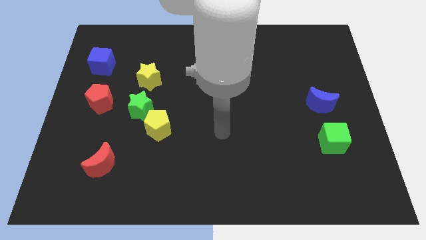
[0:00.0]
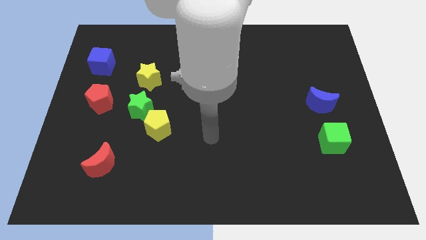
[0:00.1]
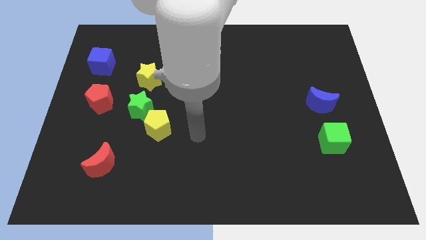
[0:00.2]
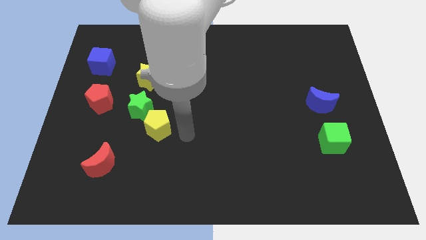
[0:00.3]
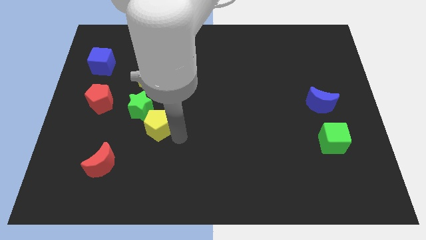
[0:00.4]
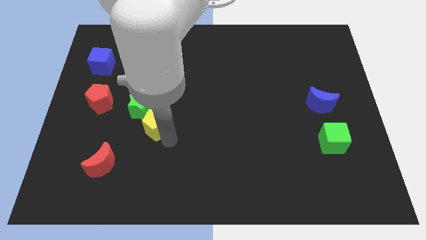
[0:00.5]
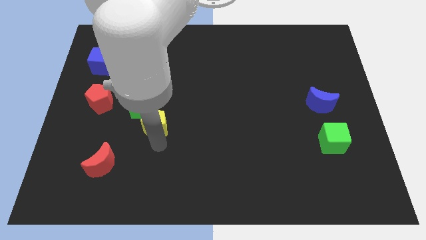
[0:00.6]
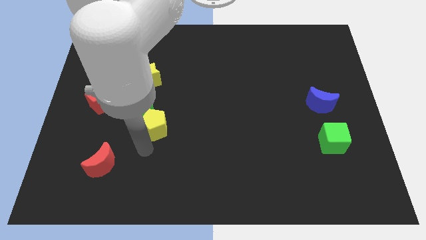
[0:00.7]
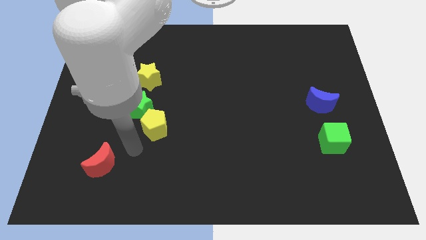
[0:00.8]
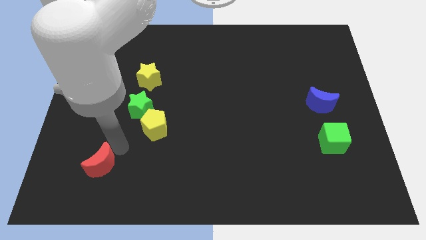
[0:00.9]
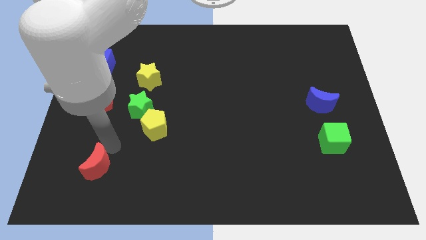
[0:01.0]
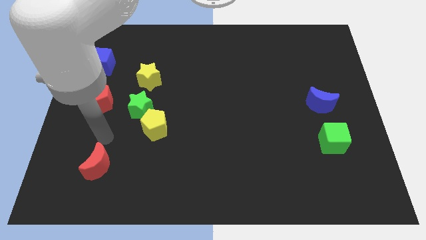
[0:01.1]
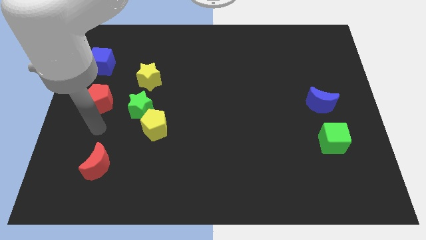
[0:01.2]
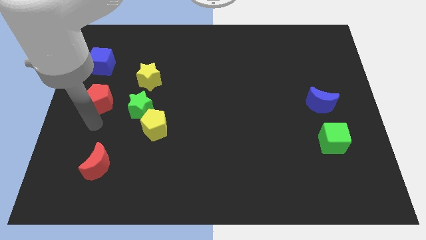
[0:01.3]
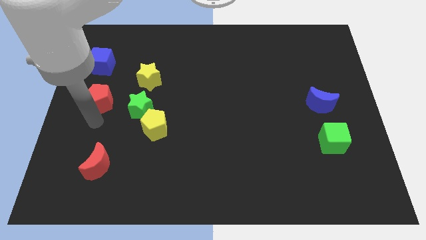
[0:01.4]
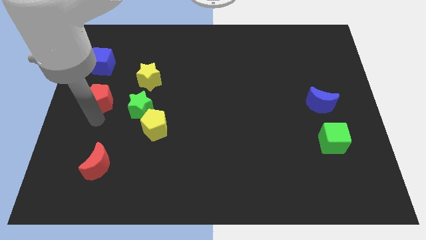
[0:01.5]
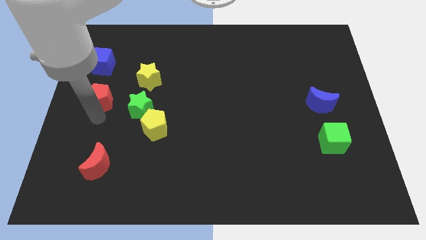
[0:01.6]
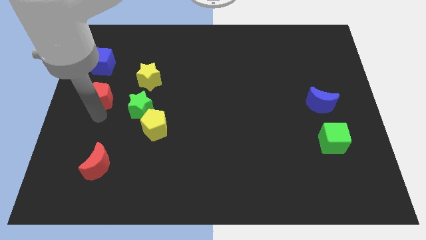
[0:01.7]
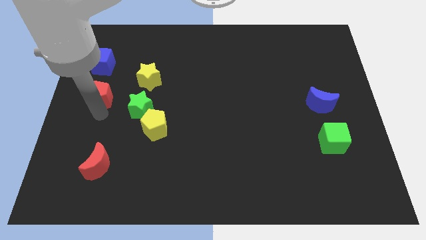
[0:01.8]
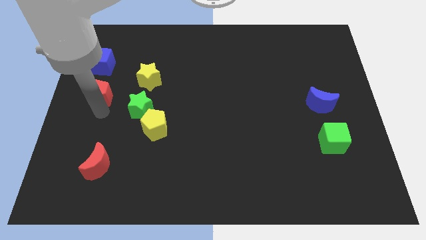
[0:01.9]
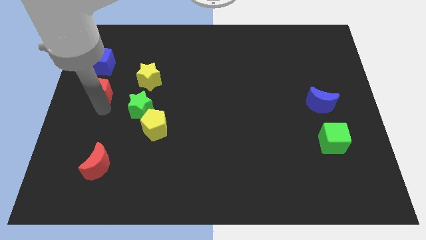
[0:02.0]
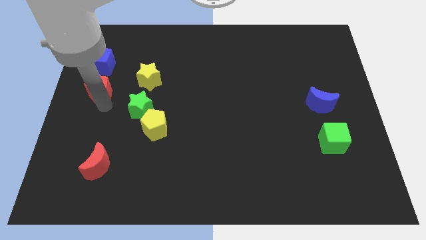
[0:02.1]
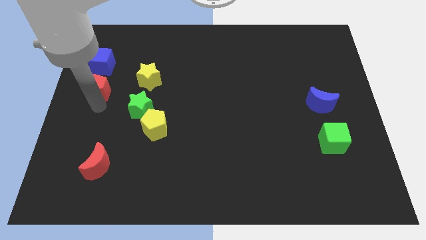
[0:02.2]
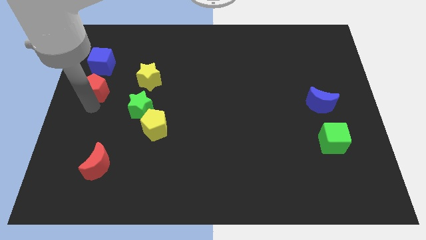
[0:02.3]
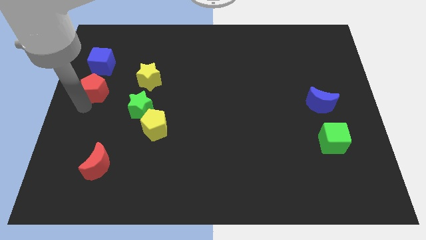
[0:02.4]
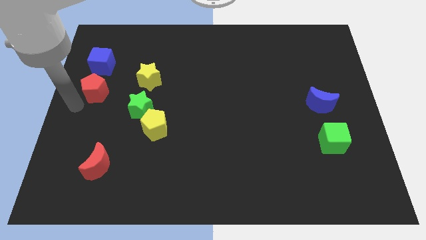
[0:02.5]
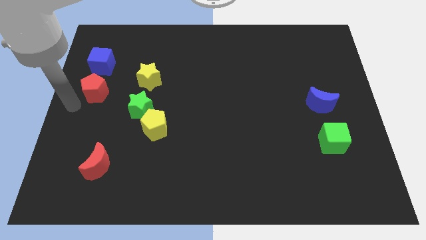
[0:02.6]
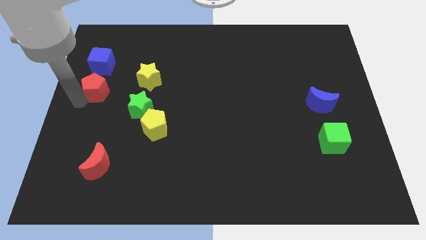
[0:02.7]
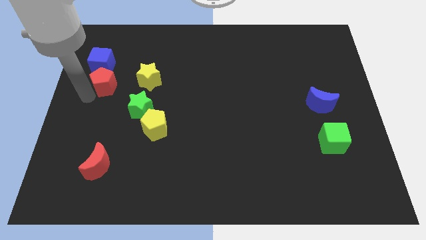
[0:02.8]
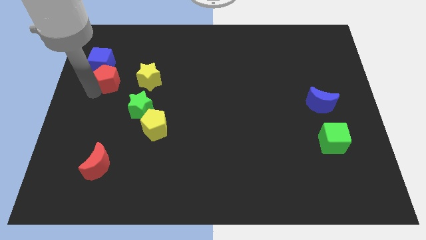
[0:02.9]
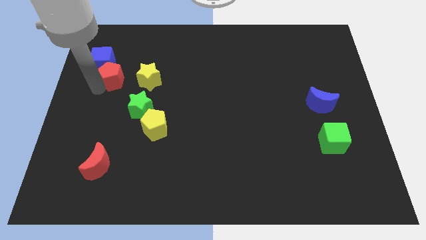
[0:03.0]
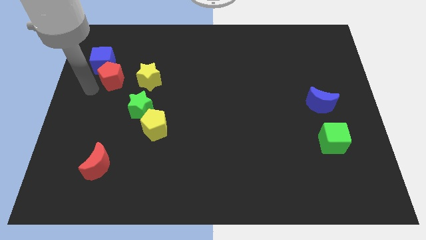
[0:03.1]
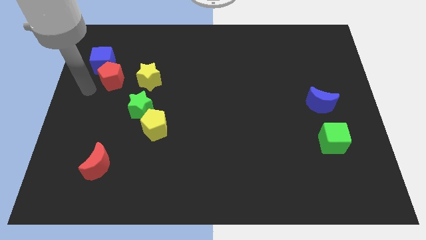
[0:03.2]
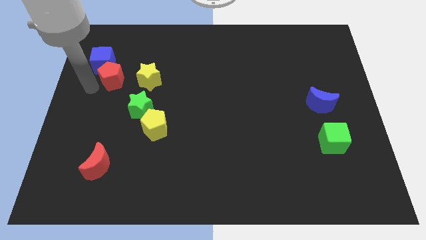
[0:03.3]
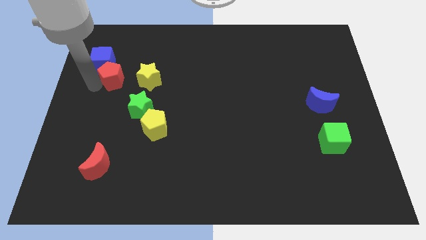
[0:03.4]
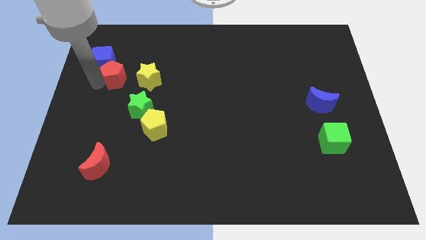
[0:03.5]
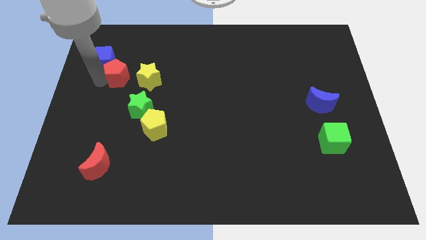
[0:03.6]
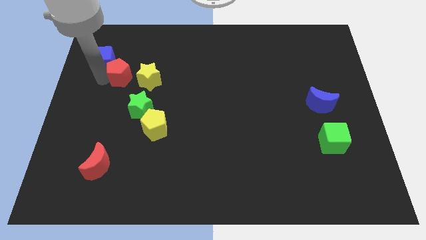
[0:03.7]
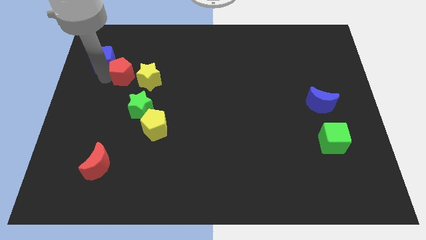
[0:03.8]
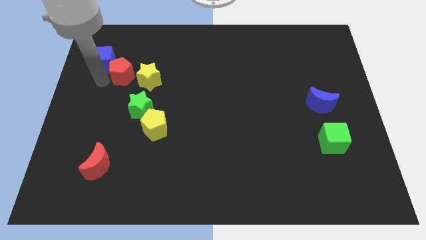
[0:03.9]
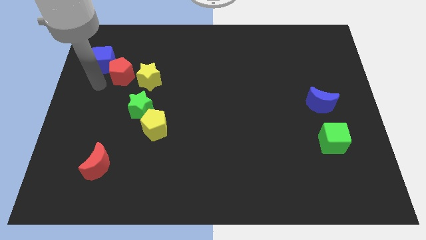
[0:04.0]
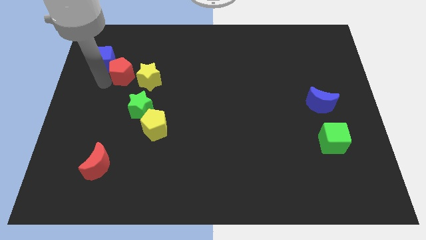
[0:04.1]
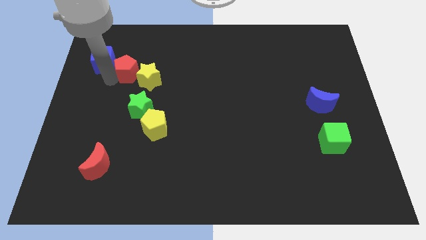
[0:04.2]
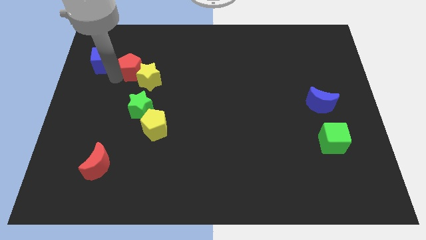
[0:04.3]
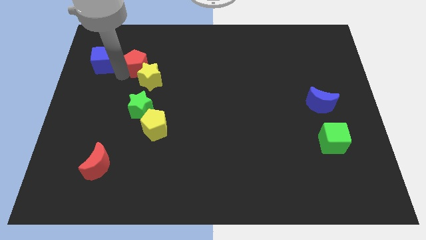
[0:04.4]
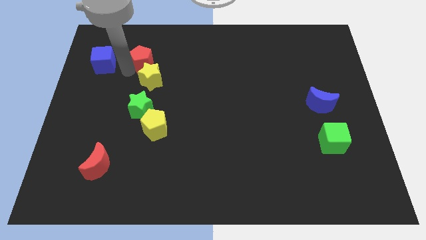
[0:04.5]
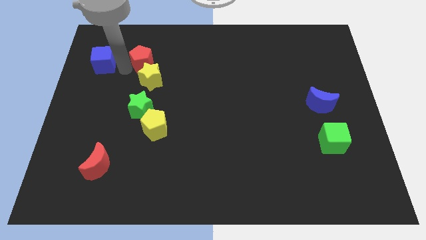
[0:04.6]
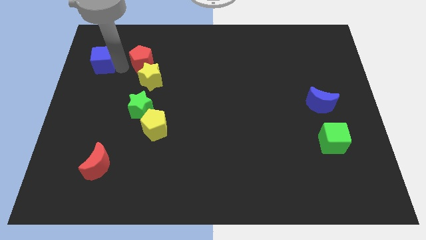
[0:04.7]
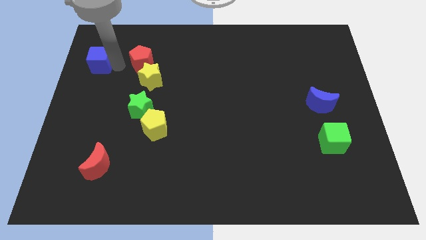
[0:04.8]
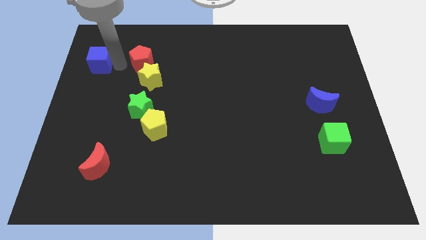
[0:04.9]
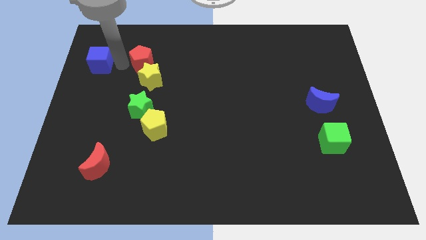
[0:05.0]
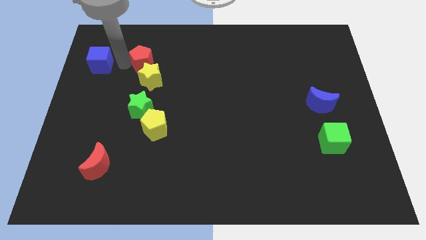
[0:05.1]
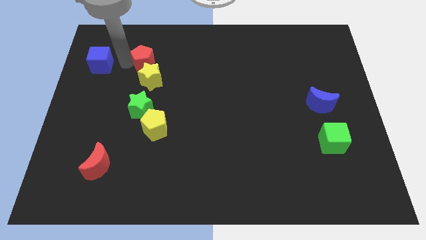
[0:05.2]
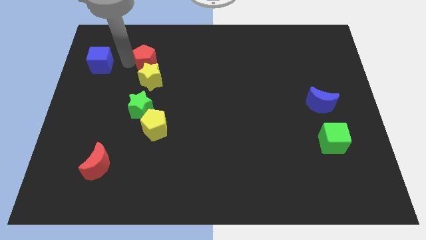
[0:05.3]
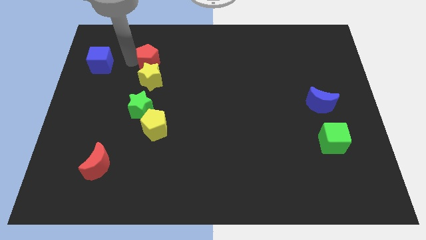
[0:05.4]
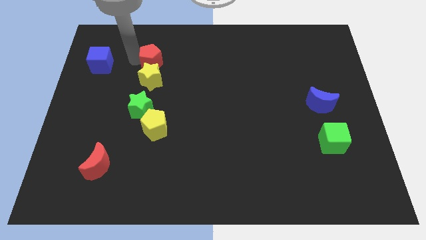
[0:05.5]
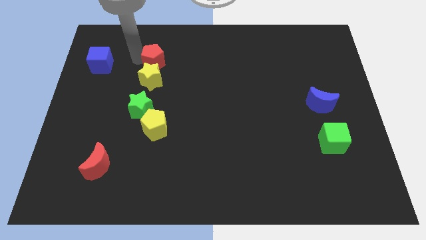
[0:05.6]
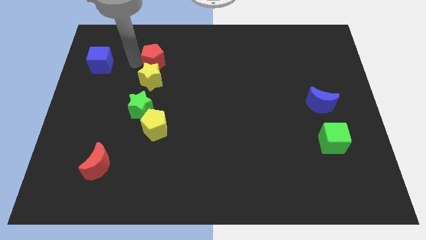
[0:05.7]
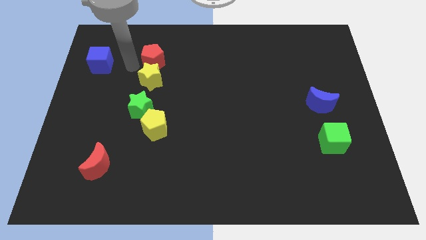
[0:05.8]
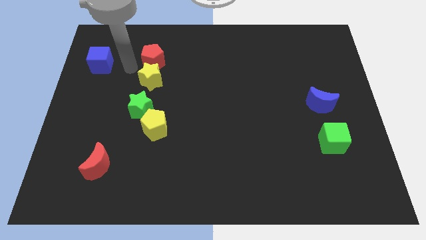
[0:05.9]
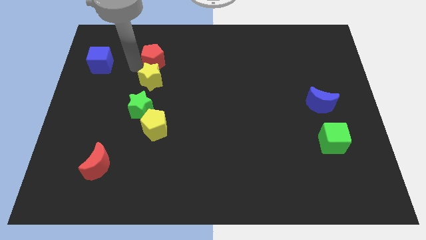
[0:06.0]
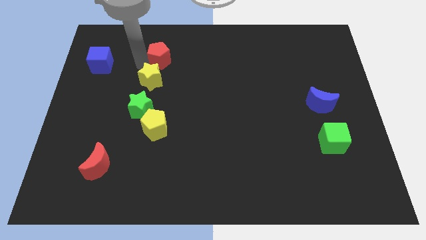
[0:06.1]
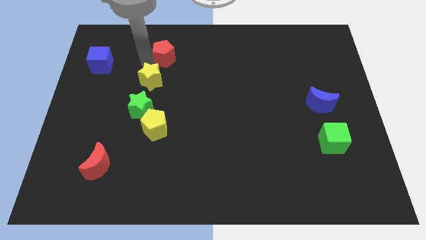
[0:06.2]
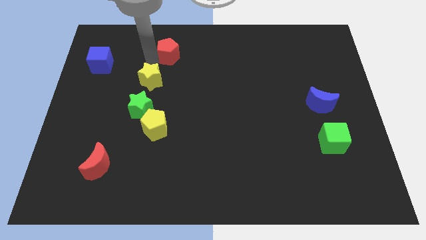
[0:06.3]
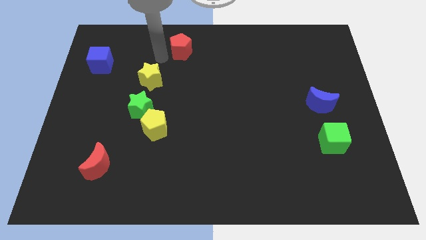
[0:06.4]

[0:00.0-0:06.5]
push the red pentagon to the top
